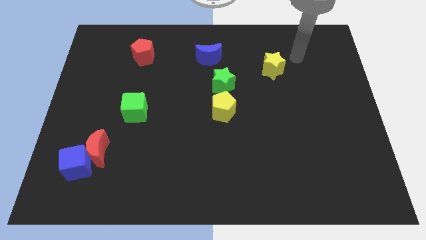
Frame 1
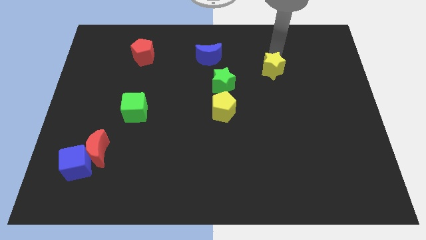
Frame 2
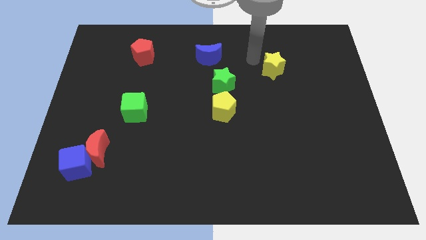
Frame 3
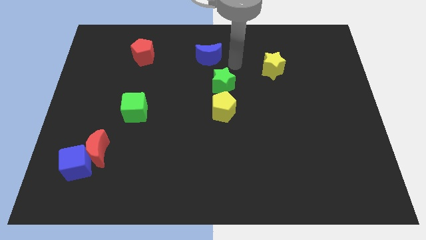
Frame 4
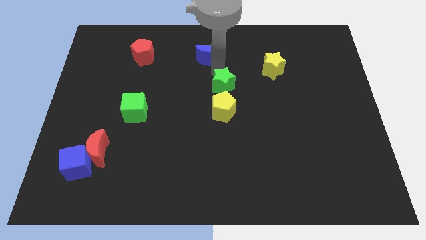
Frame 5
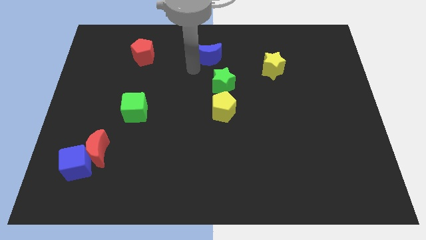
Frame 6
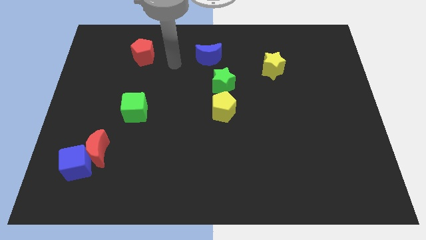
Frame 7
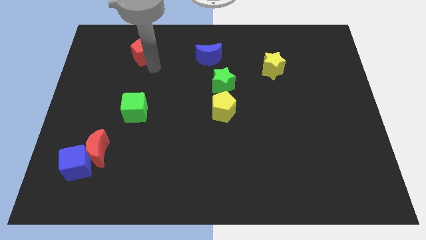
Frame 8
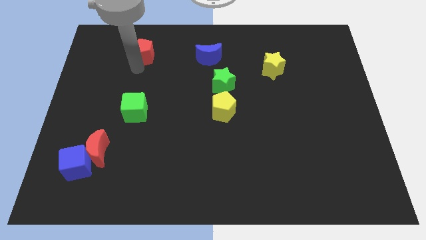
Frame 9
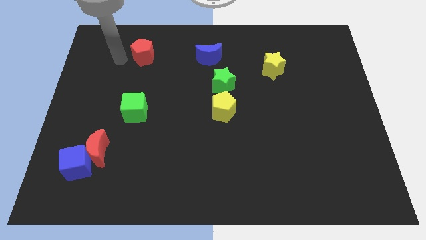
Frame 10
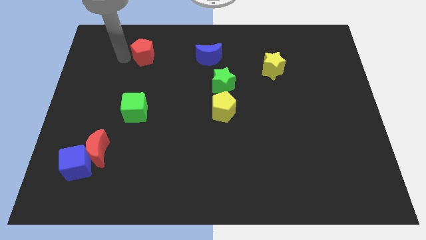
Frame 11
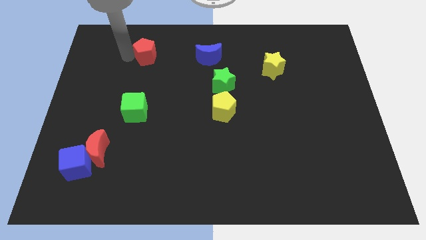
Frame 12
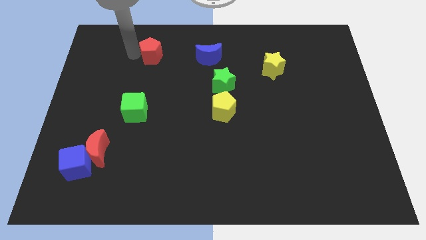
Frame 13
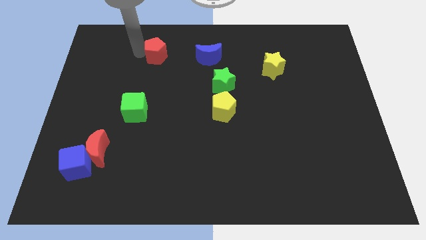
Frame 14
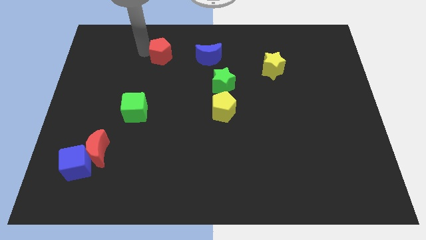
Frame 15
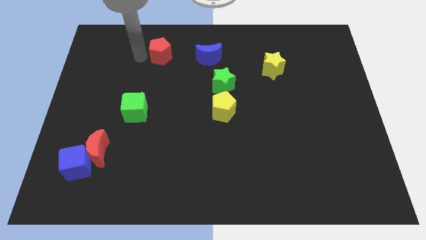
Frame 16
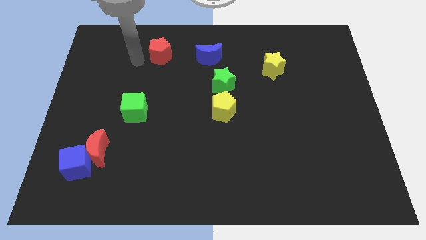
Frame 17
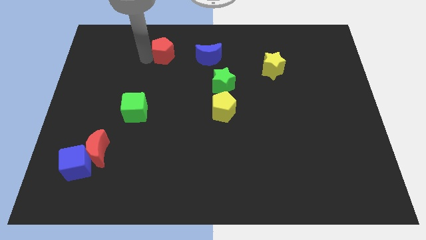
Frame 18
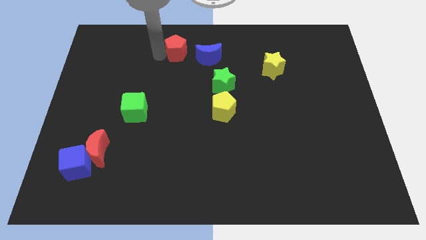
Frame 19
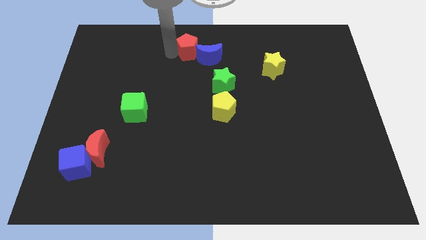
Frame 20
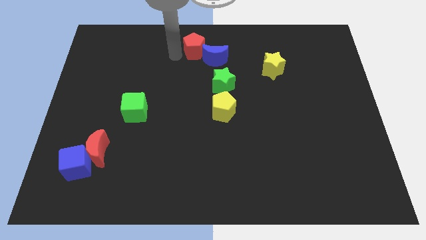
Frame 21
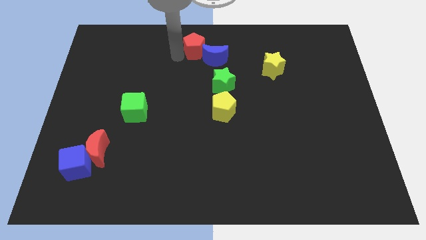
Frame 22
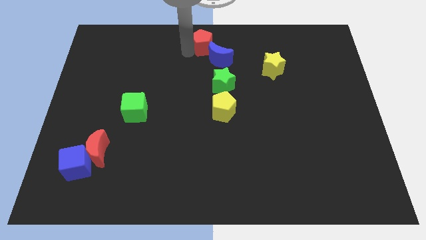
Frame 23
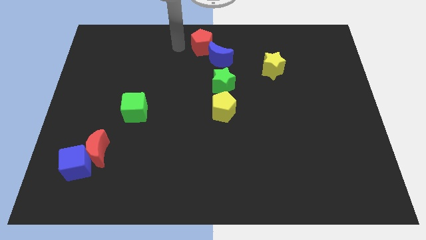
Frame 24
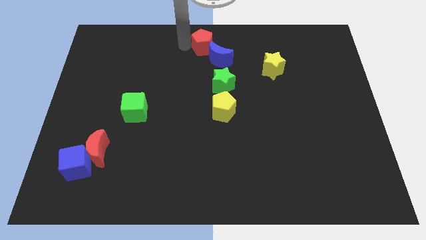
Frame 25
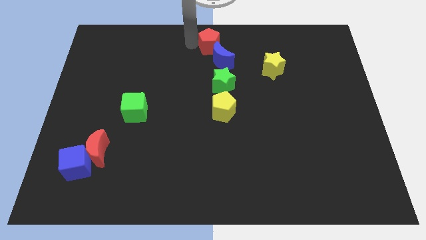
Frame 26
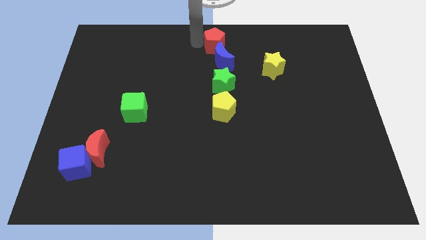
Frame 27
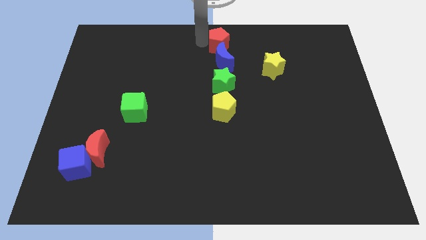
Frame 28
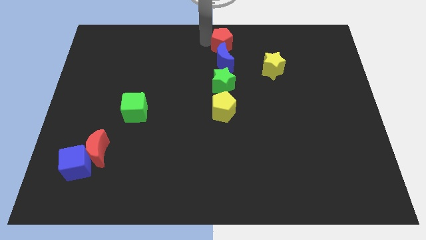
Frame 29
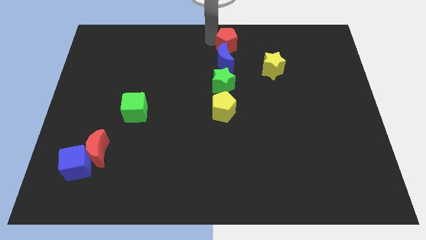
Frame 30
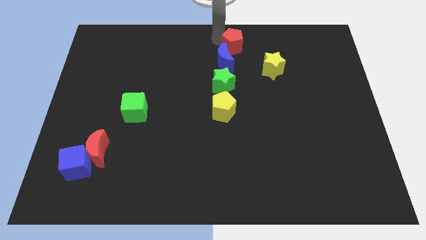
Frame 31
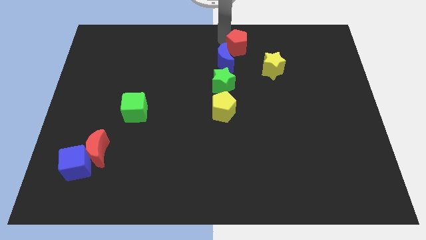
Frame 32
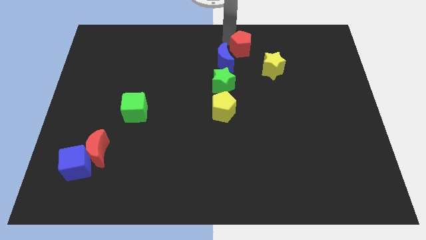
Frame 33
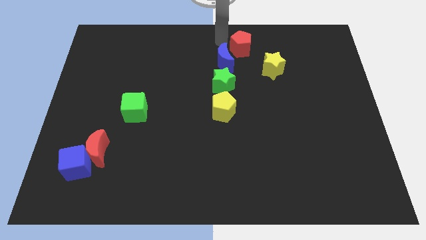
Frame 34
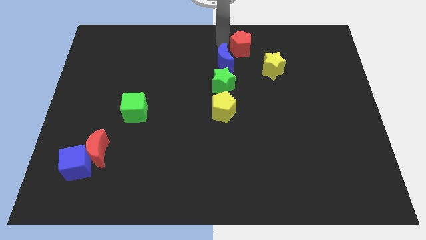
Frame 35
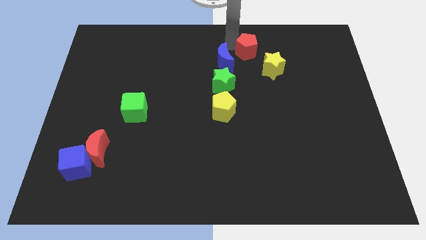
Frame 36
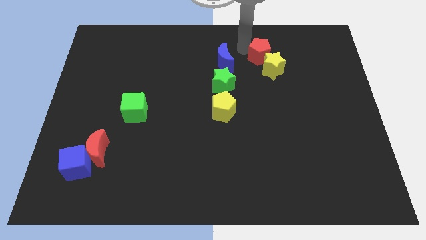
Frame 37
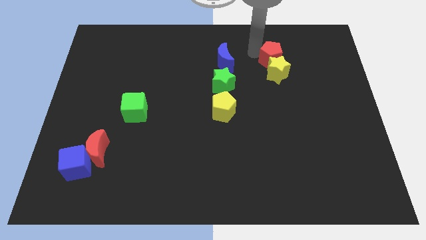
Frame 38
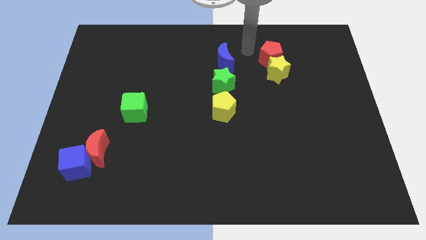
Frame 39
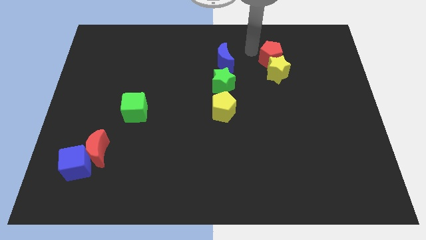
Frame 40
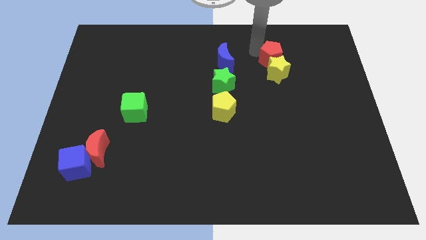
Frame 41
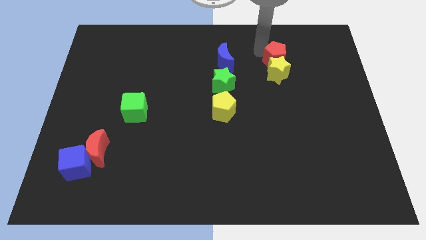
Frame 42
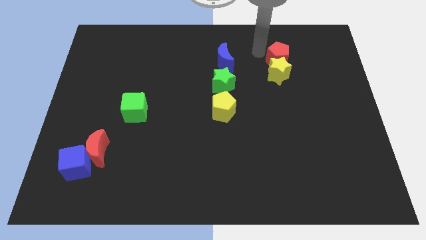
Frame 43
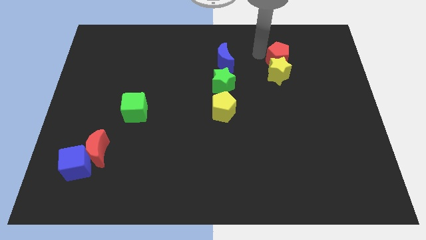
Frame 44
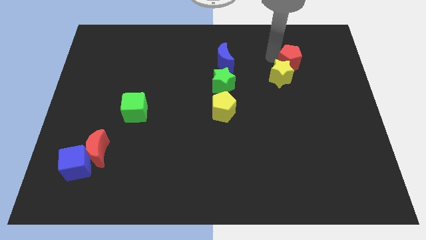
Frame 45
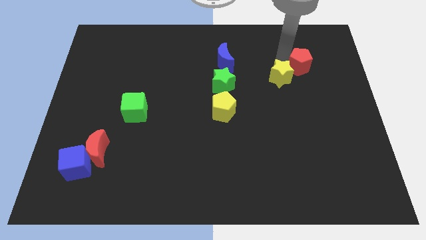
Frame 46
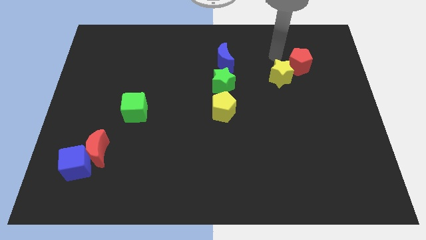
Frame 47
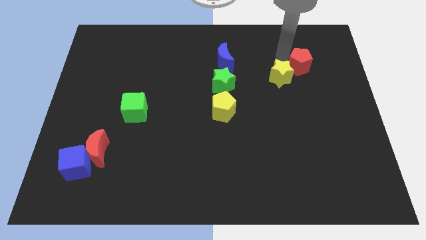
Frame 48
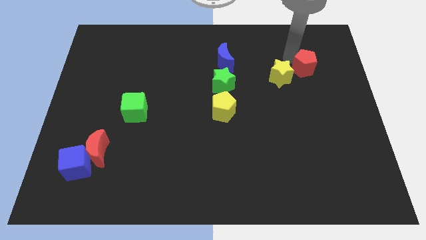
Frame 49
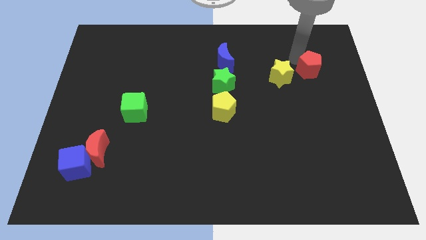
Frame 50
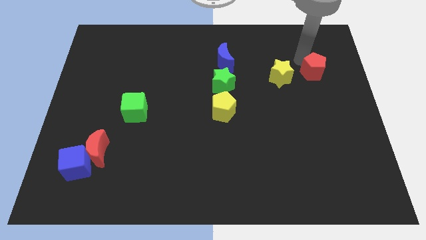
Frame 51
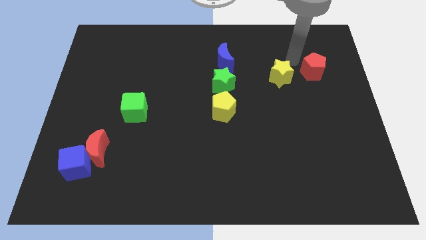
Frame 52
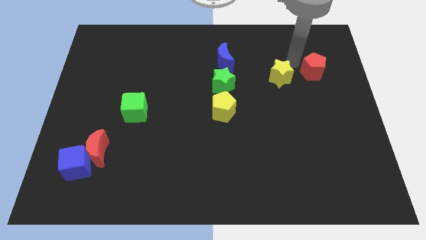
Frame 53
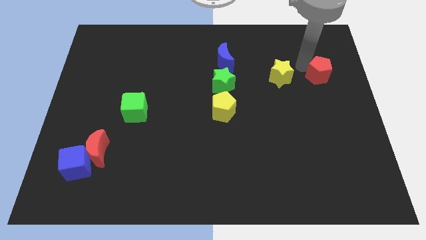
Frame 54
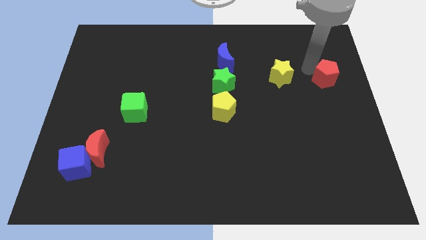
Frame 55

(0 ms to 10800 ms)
push the red pentagon to the right side of the board

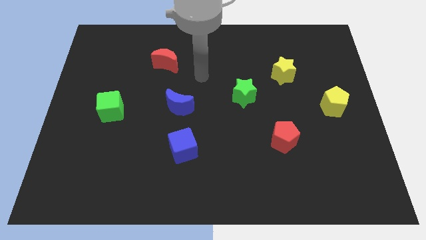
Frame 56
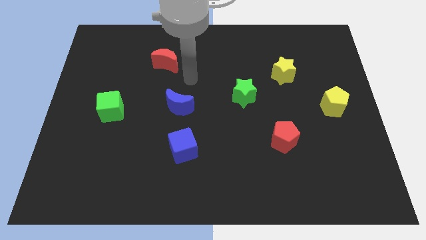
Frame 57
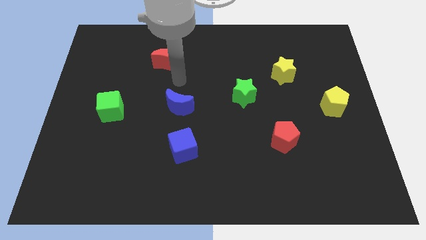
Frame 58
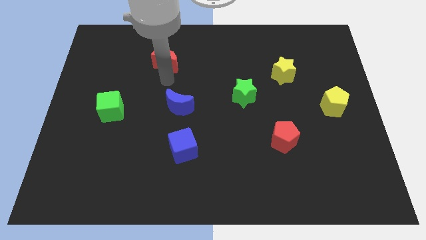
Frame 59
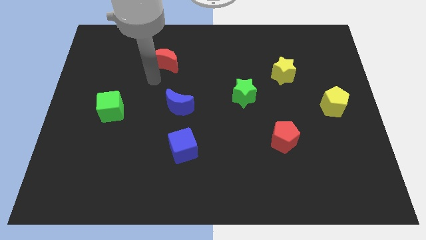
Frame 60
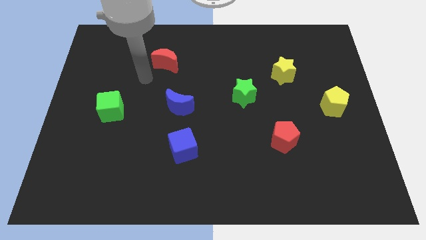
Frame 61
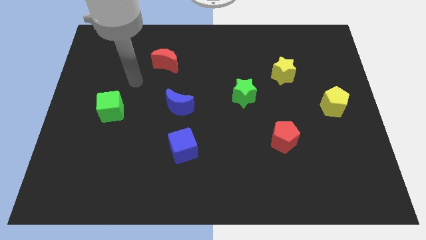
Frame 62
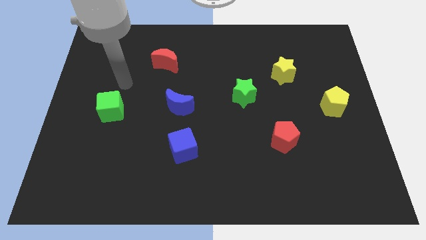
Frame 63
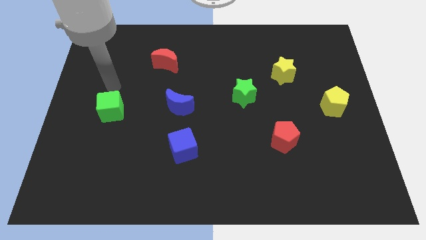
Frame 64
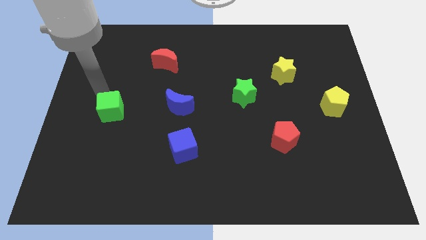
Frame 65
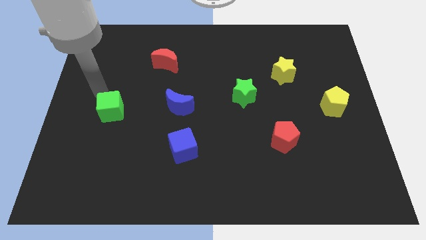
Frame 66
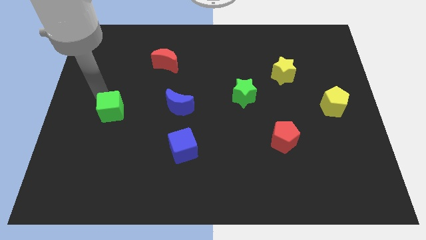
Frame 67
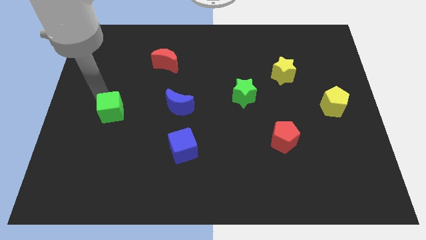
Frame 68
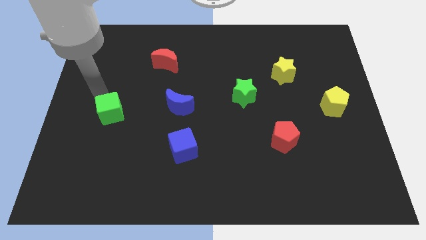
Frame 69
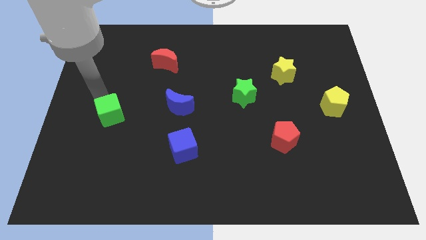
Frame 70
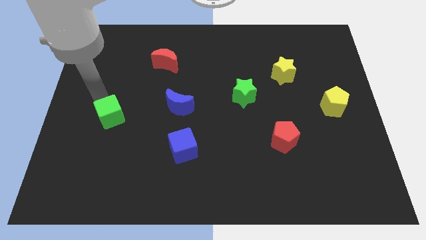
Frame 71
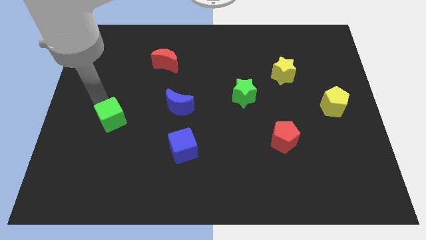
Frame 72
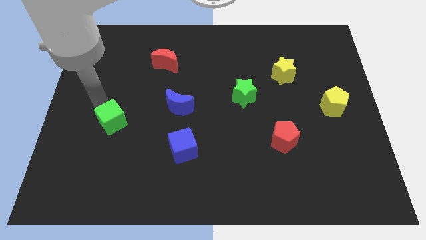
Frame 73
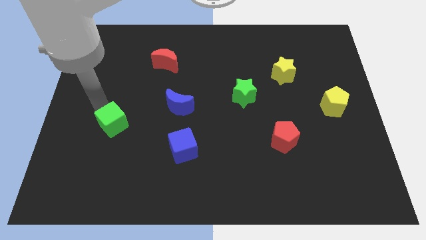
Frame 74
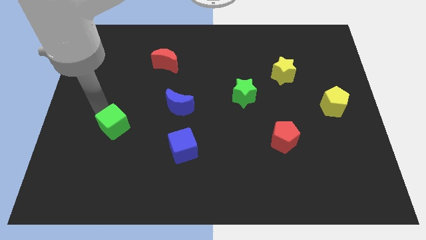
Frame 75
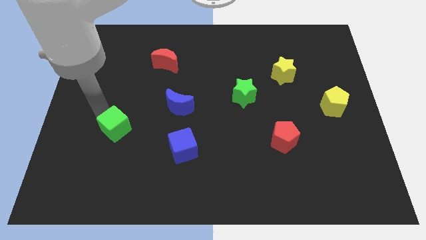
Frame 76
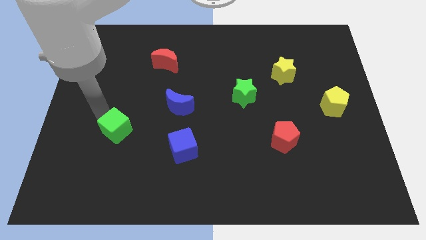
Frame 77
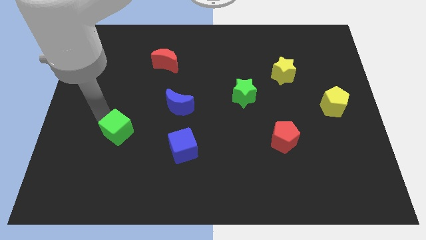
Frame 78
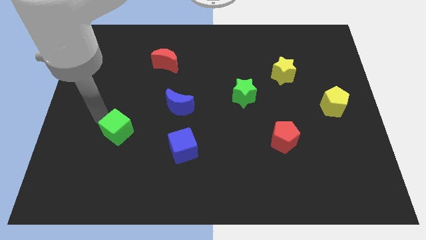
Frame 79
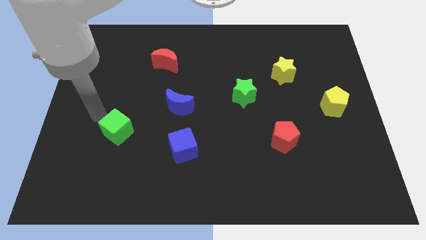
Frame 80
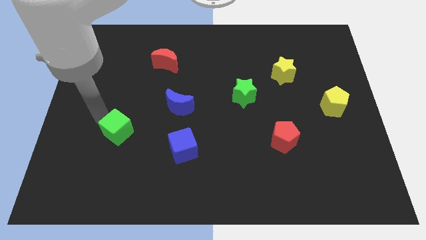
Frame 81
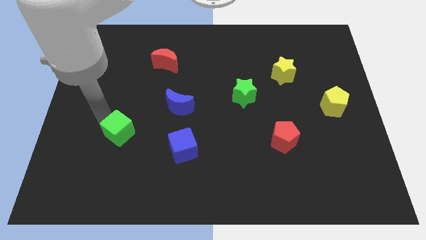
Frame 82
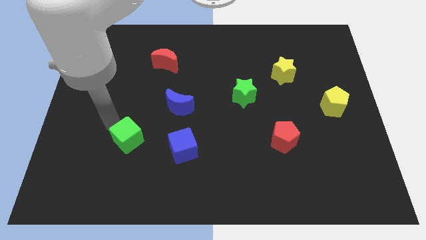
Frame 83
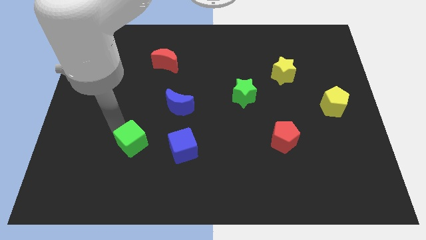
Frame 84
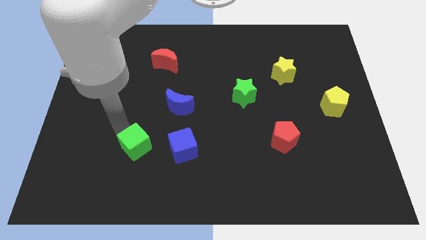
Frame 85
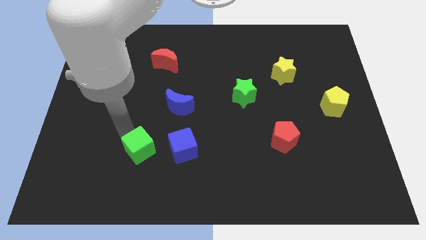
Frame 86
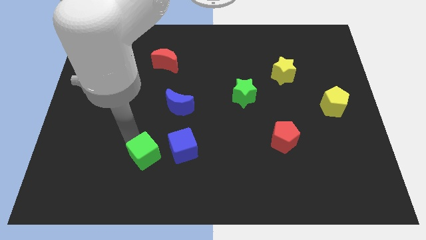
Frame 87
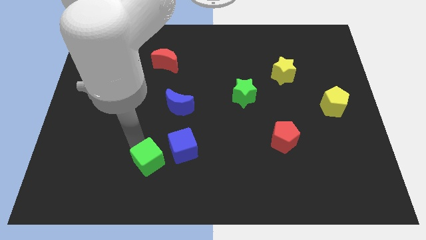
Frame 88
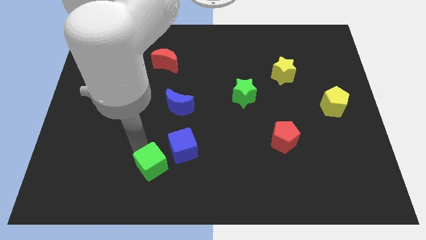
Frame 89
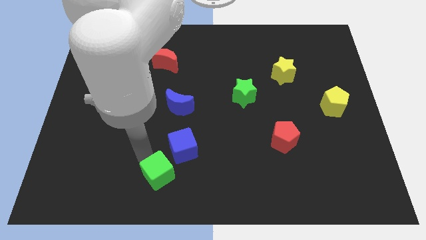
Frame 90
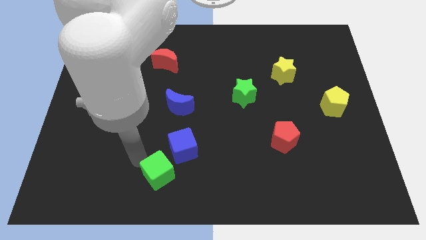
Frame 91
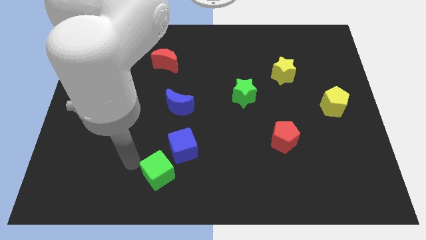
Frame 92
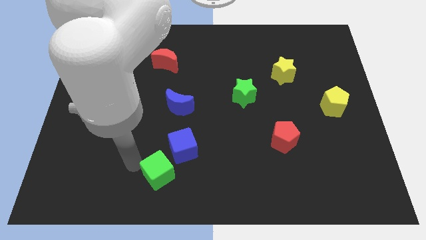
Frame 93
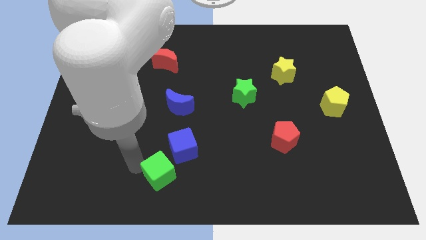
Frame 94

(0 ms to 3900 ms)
put the green cube to the bottom
